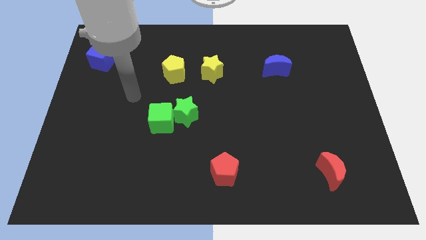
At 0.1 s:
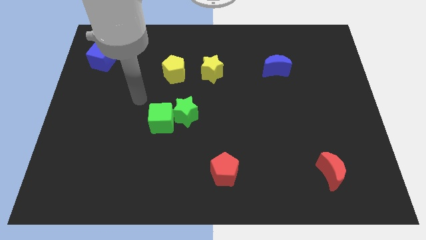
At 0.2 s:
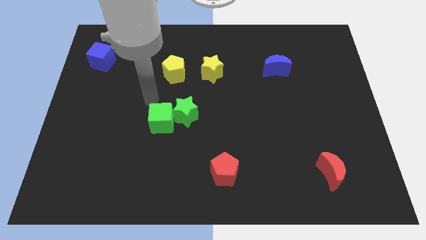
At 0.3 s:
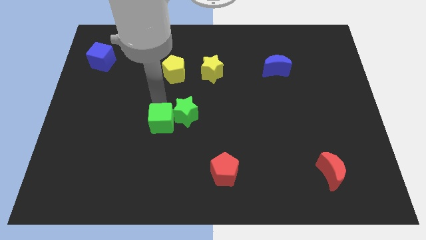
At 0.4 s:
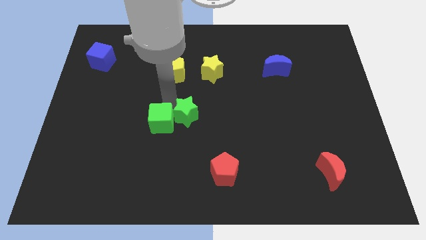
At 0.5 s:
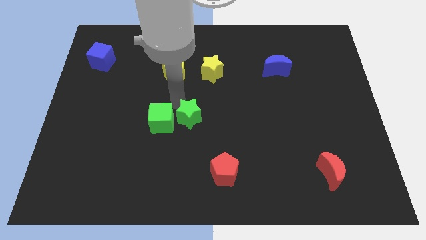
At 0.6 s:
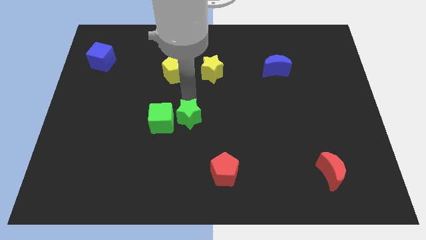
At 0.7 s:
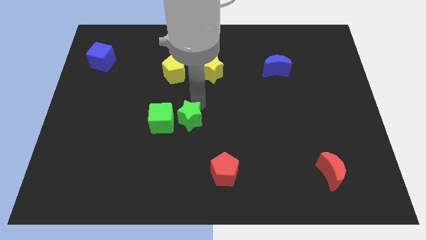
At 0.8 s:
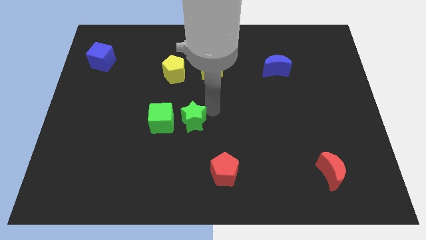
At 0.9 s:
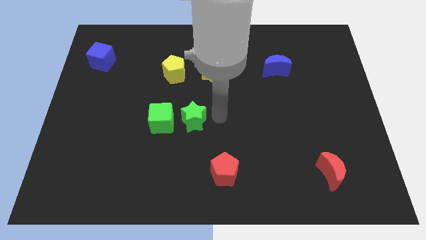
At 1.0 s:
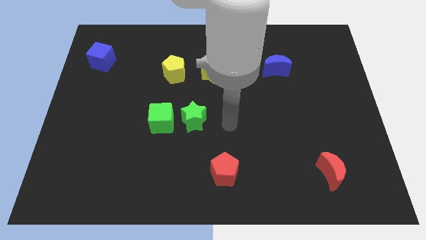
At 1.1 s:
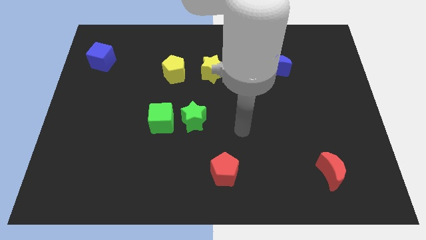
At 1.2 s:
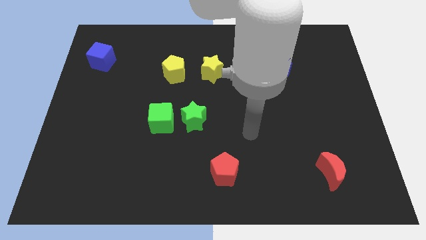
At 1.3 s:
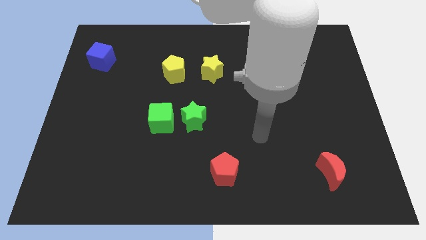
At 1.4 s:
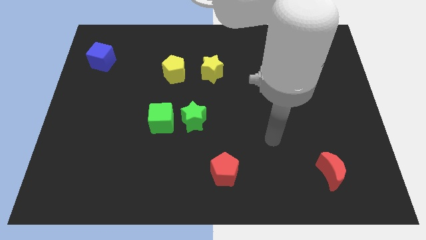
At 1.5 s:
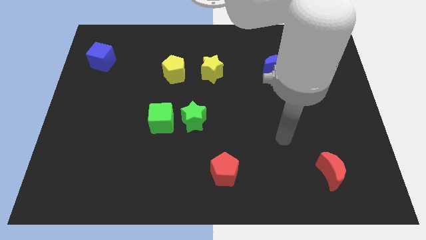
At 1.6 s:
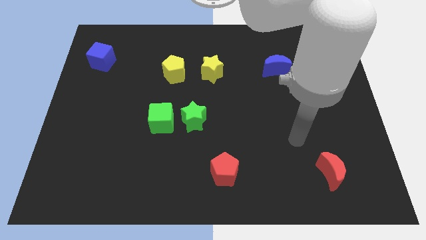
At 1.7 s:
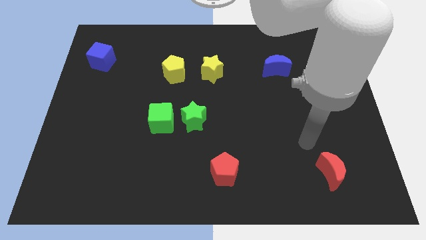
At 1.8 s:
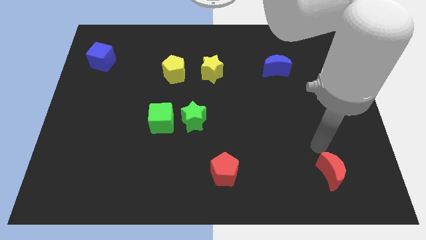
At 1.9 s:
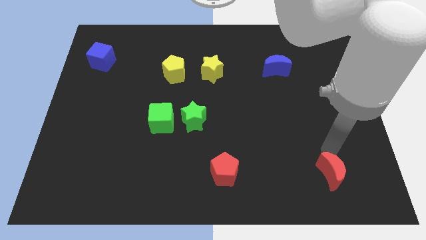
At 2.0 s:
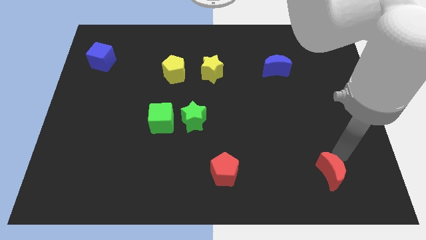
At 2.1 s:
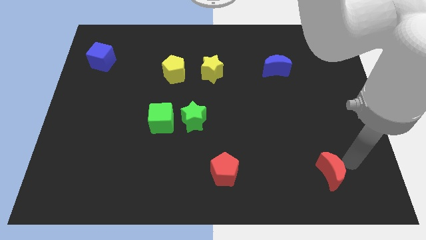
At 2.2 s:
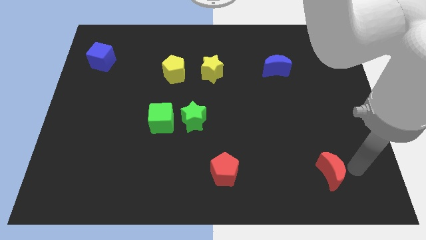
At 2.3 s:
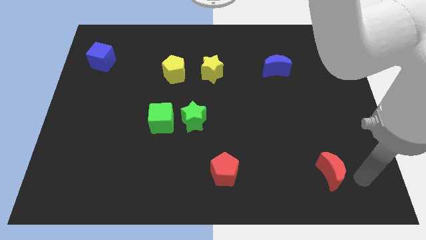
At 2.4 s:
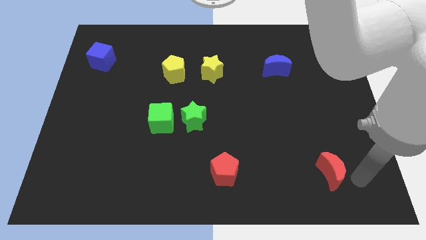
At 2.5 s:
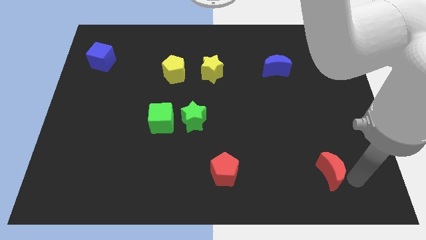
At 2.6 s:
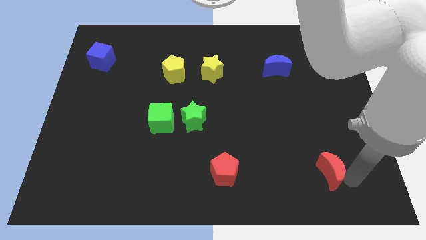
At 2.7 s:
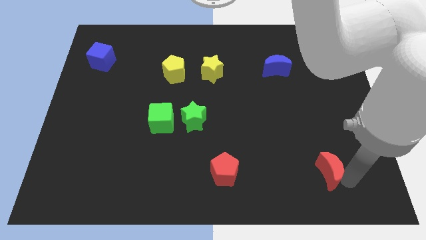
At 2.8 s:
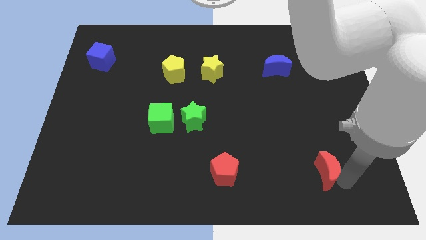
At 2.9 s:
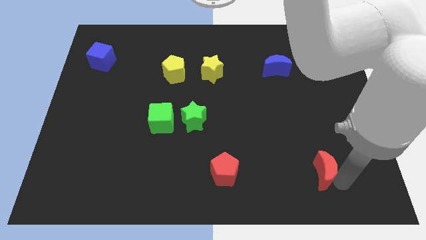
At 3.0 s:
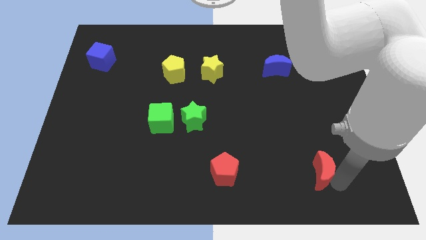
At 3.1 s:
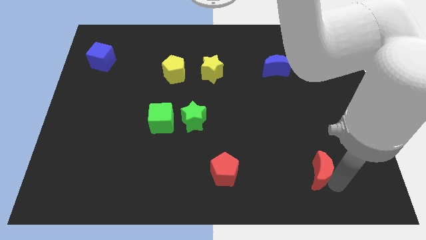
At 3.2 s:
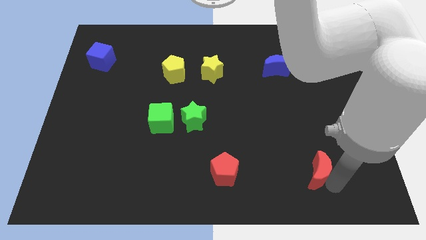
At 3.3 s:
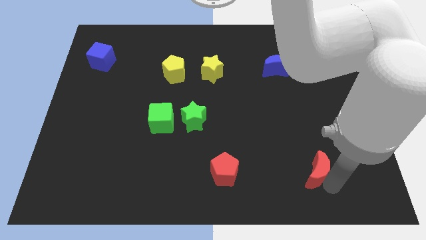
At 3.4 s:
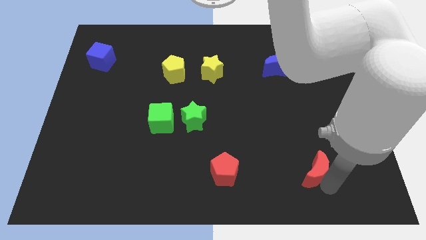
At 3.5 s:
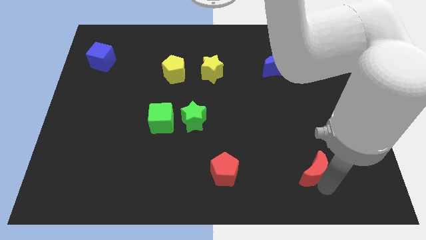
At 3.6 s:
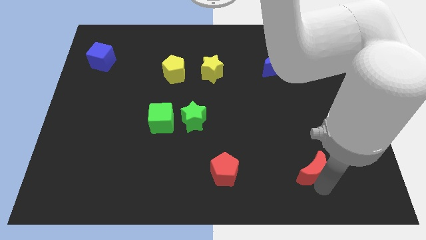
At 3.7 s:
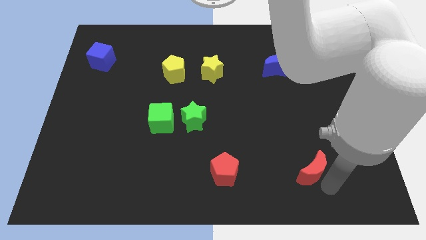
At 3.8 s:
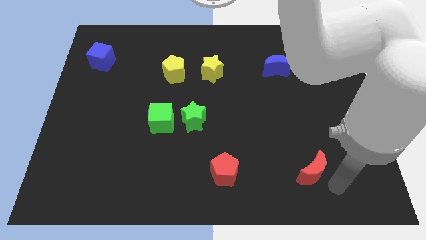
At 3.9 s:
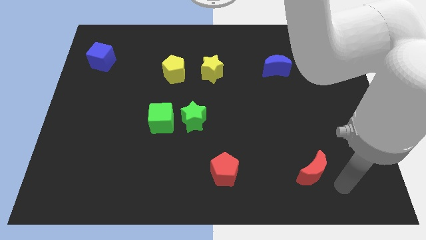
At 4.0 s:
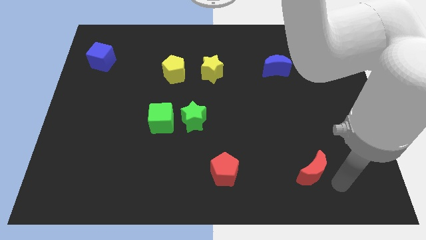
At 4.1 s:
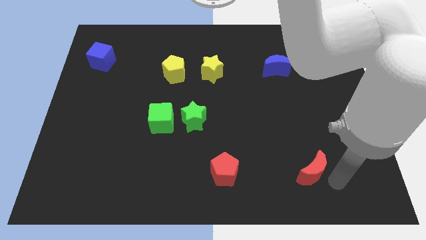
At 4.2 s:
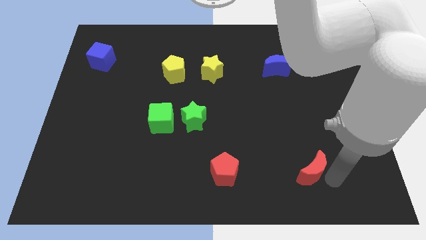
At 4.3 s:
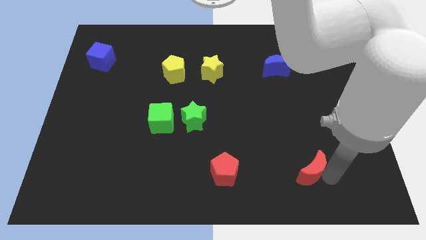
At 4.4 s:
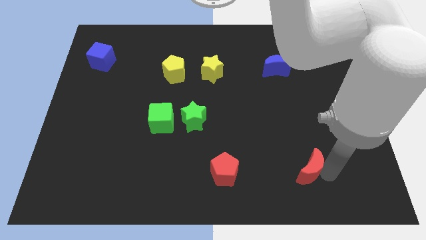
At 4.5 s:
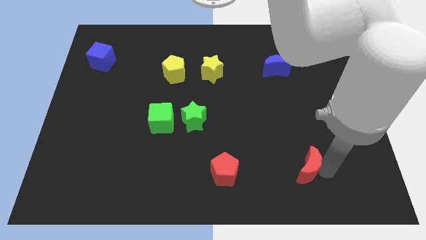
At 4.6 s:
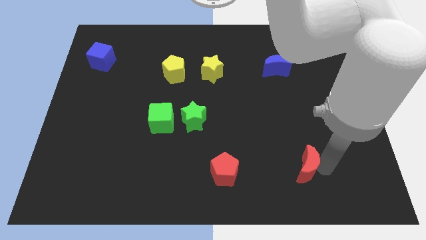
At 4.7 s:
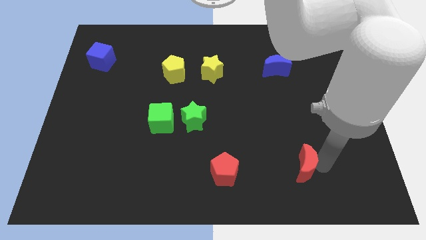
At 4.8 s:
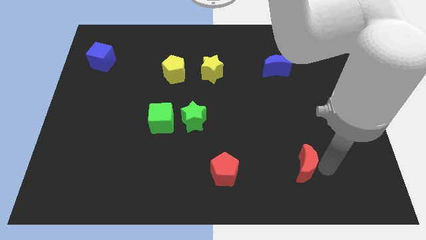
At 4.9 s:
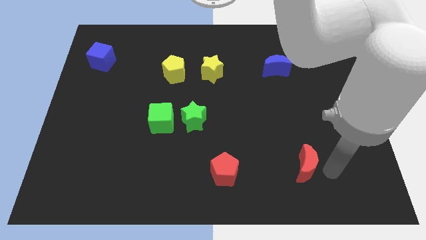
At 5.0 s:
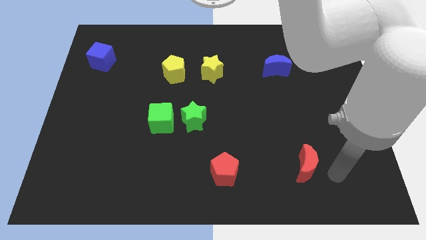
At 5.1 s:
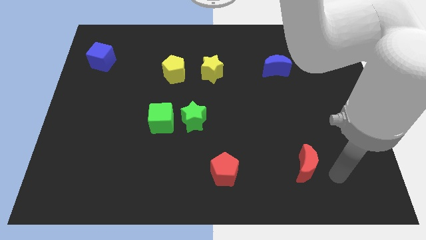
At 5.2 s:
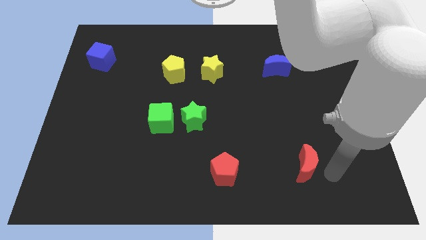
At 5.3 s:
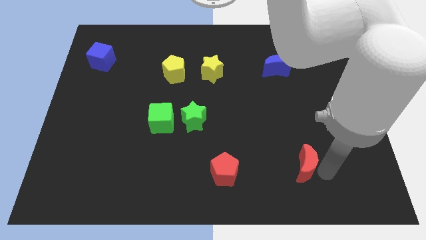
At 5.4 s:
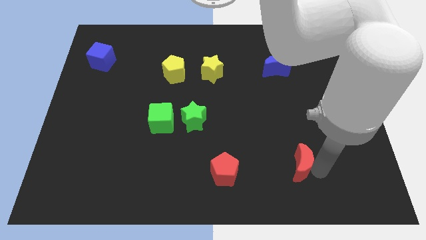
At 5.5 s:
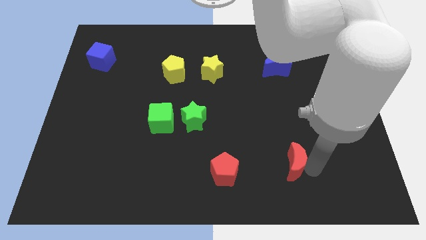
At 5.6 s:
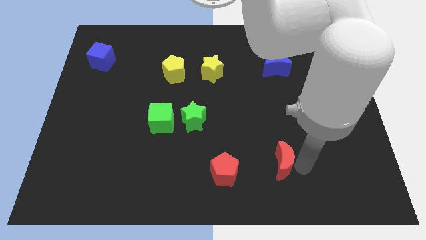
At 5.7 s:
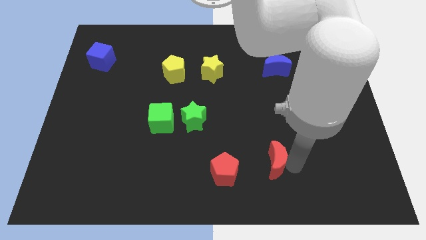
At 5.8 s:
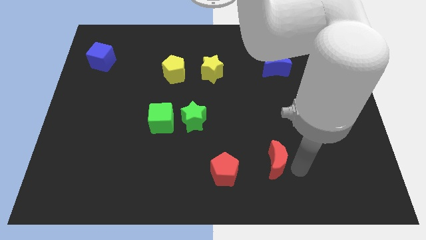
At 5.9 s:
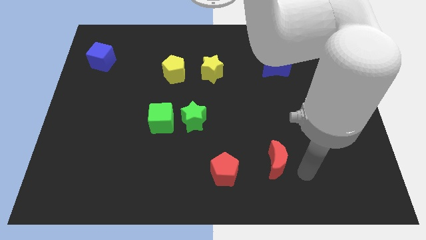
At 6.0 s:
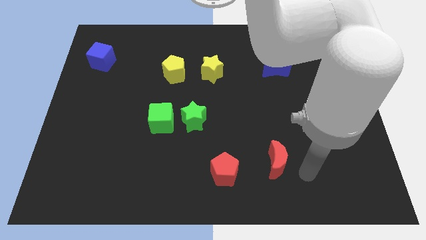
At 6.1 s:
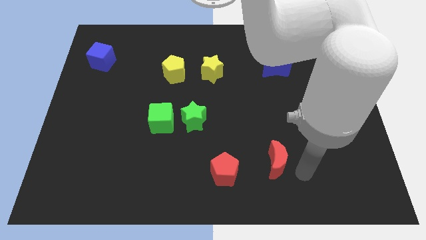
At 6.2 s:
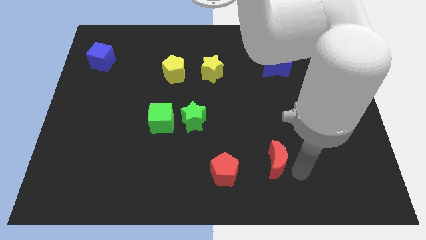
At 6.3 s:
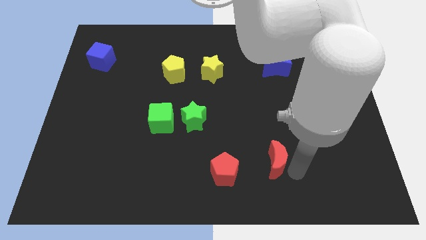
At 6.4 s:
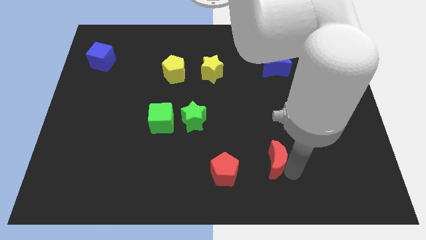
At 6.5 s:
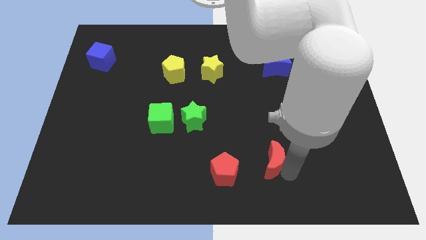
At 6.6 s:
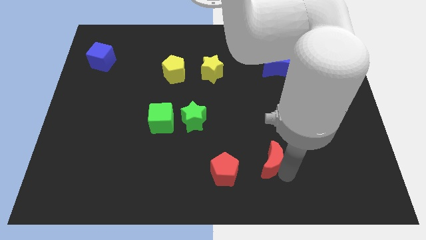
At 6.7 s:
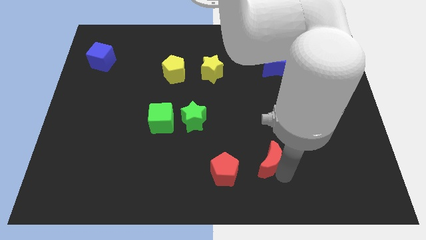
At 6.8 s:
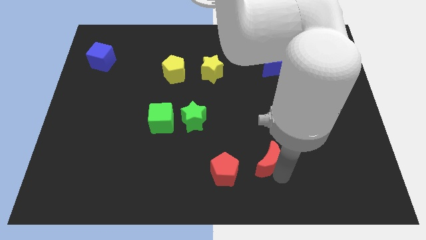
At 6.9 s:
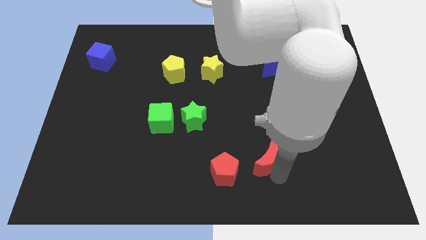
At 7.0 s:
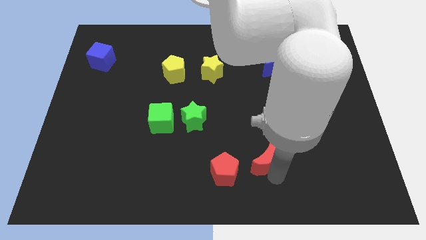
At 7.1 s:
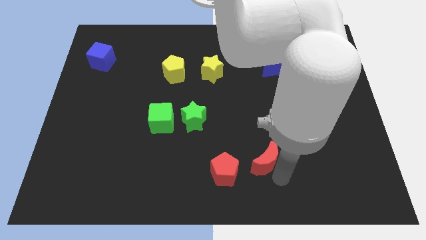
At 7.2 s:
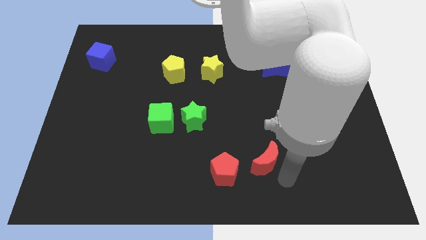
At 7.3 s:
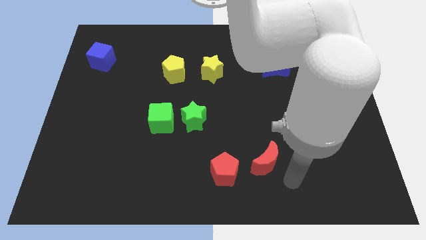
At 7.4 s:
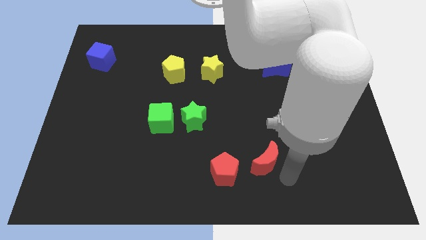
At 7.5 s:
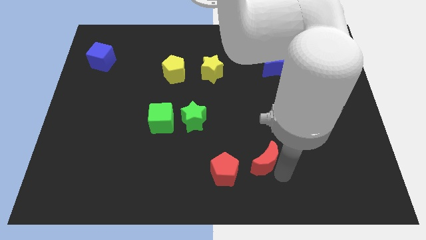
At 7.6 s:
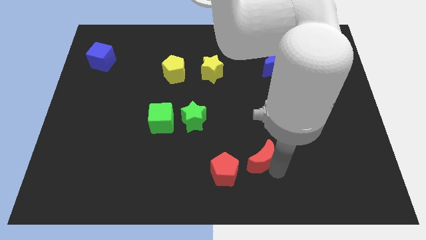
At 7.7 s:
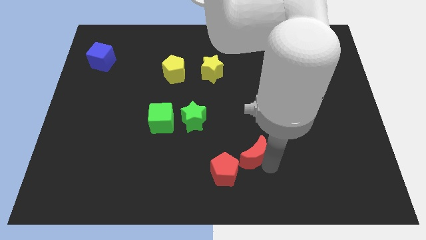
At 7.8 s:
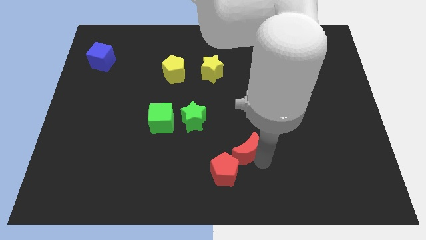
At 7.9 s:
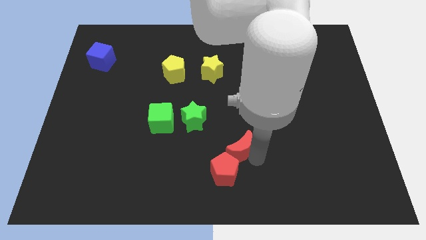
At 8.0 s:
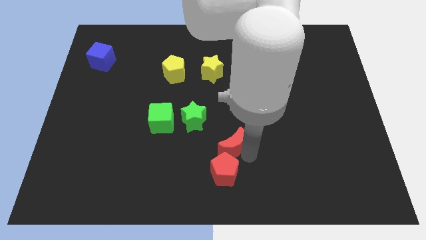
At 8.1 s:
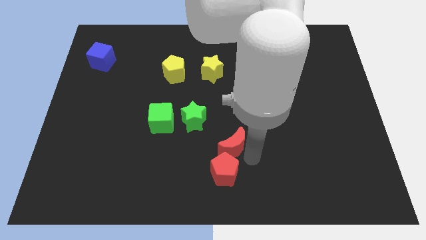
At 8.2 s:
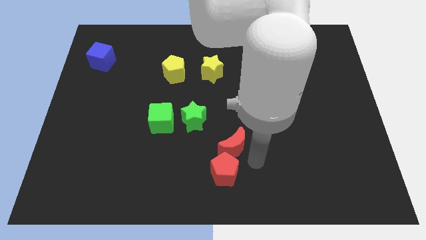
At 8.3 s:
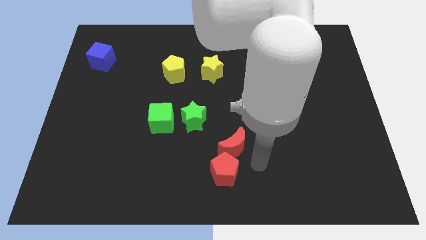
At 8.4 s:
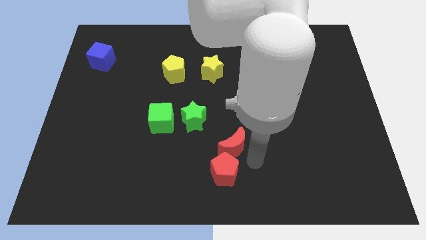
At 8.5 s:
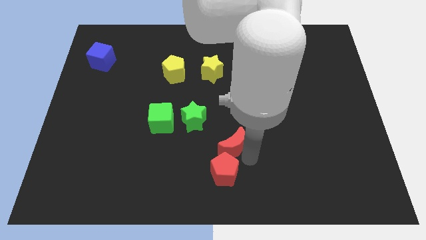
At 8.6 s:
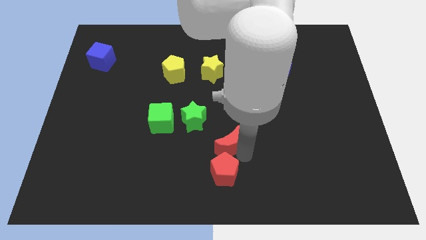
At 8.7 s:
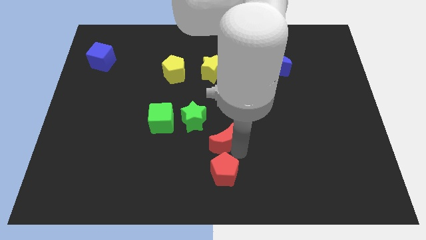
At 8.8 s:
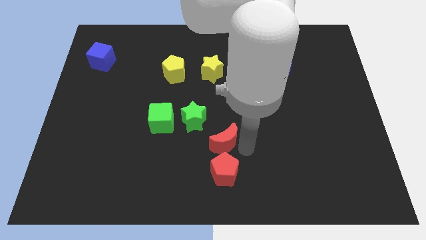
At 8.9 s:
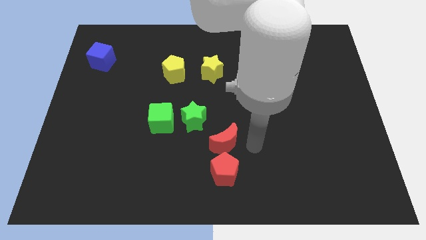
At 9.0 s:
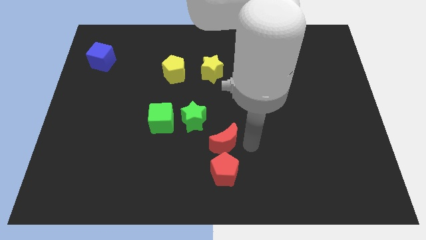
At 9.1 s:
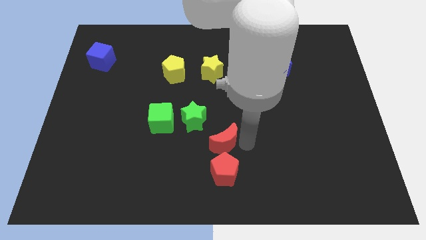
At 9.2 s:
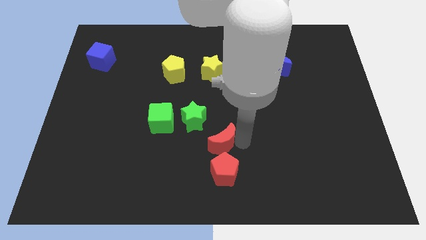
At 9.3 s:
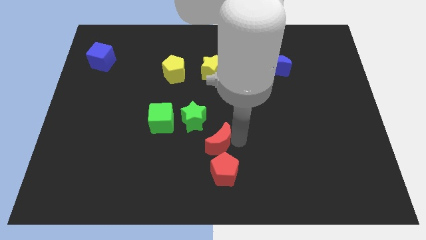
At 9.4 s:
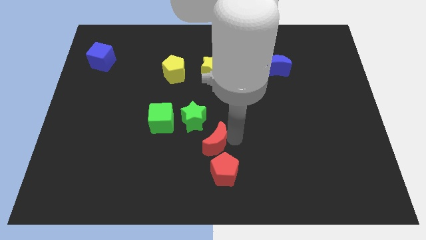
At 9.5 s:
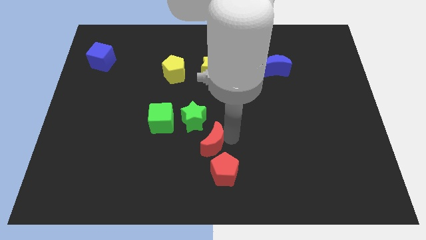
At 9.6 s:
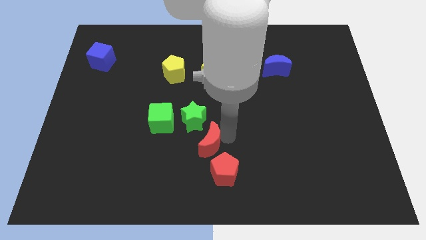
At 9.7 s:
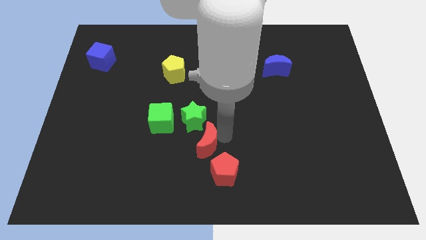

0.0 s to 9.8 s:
push the red moon to the bottom right of the green cube
